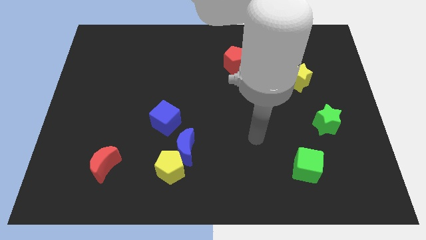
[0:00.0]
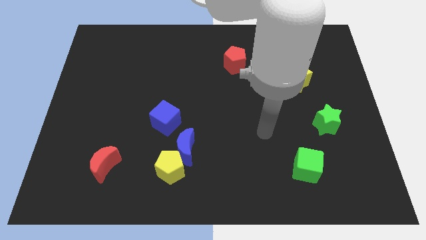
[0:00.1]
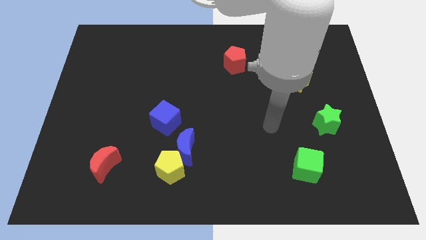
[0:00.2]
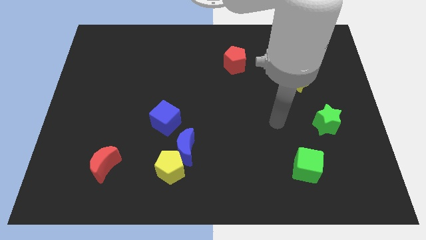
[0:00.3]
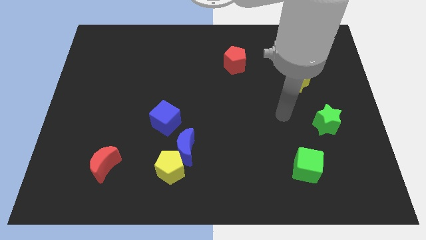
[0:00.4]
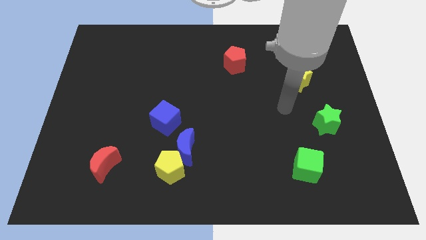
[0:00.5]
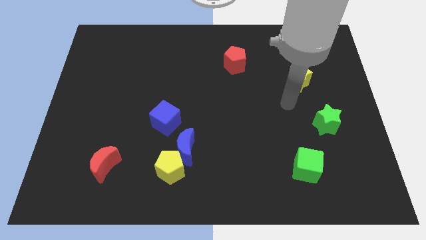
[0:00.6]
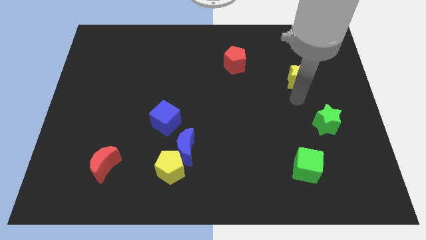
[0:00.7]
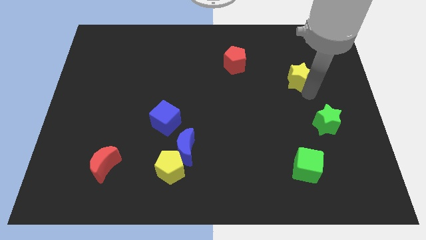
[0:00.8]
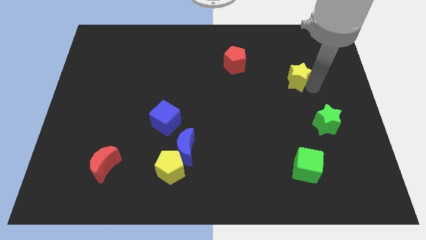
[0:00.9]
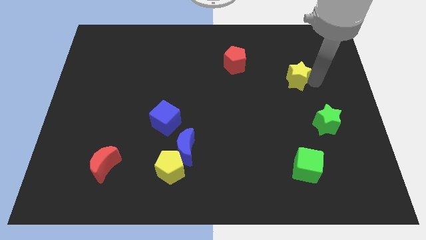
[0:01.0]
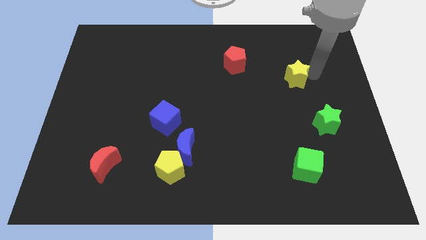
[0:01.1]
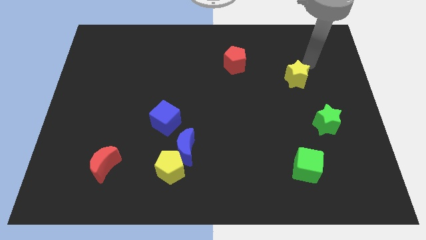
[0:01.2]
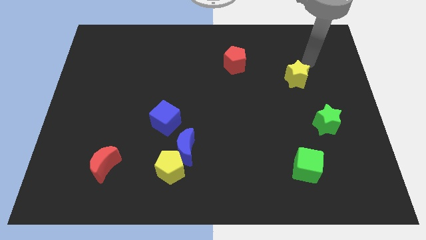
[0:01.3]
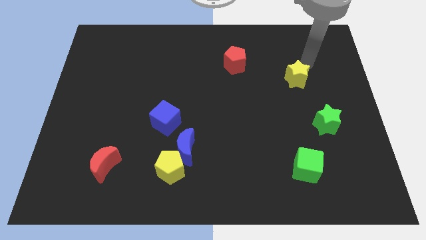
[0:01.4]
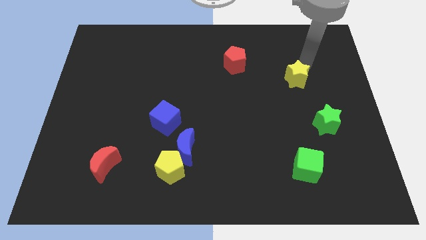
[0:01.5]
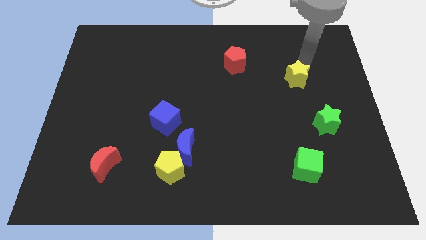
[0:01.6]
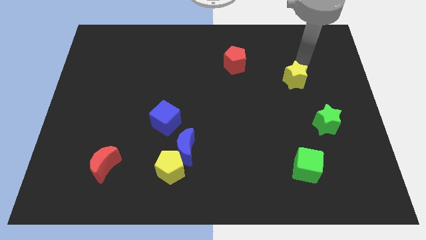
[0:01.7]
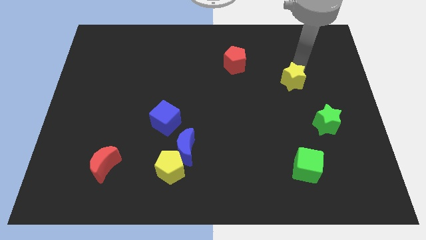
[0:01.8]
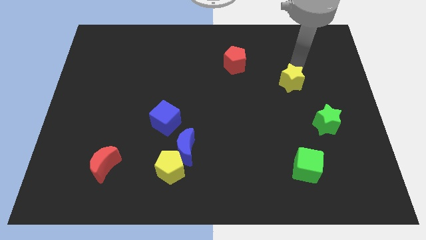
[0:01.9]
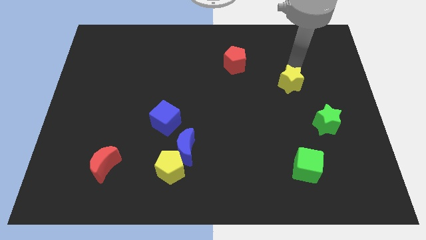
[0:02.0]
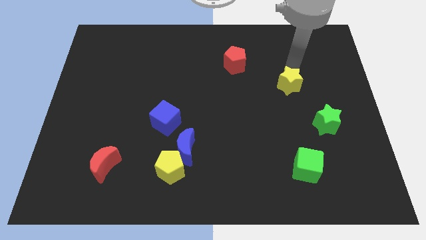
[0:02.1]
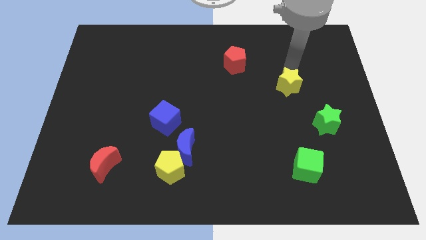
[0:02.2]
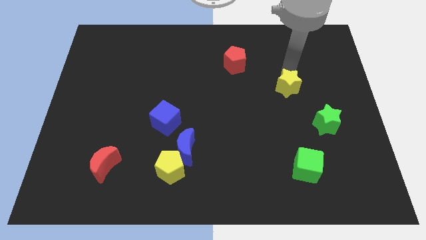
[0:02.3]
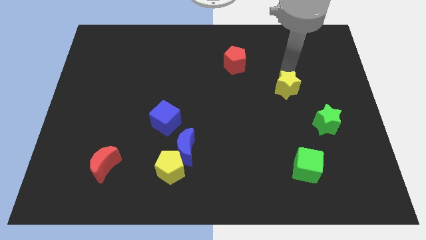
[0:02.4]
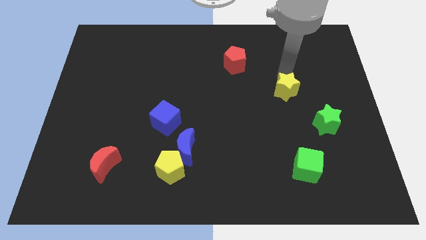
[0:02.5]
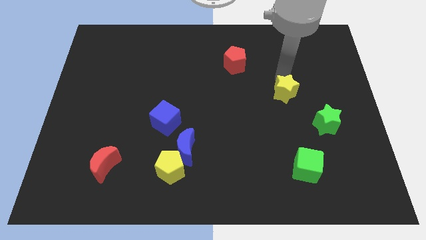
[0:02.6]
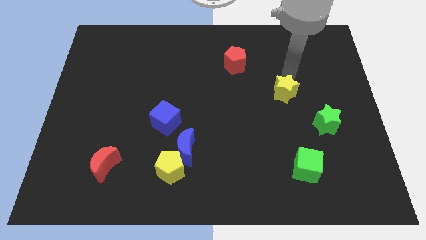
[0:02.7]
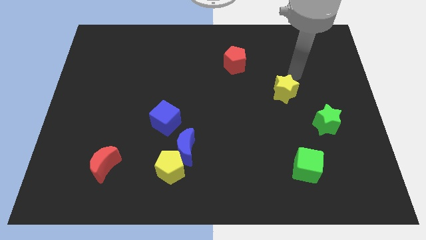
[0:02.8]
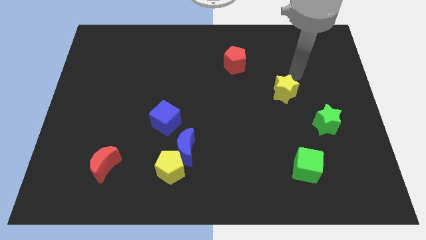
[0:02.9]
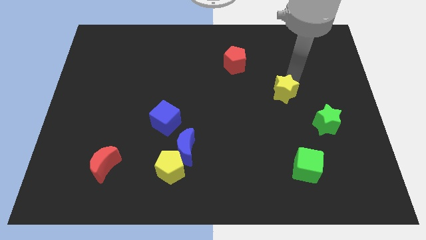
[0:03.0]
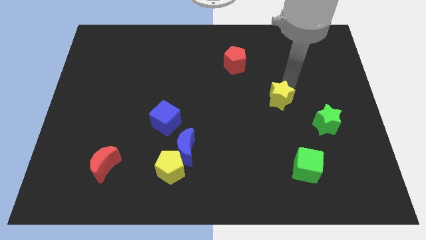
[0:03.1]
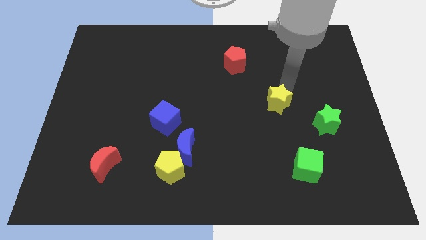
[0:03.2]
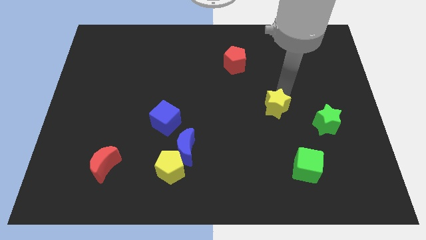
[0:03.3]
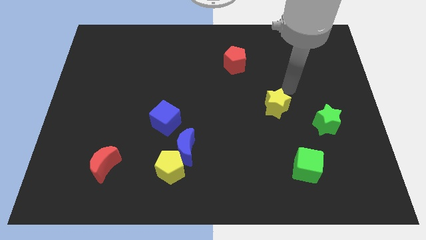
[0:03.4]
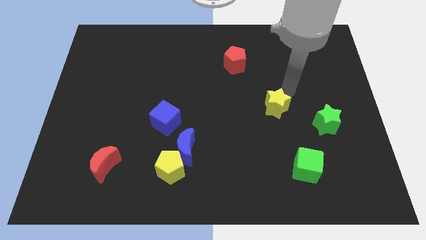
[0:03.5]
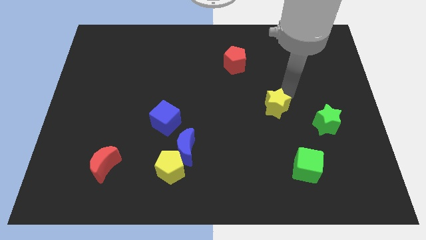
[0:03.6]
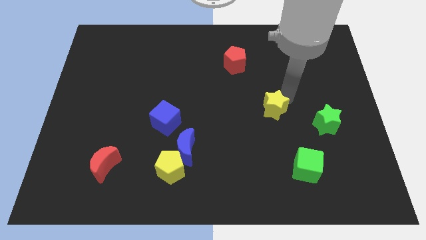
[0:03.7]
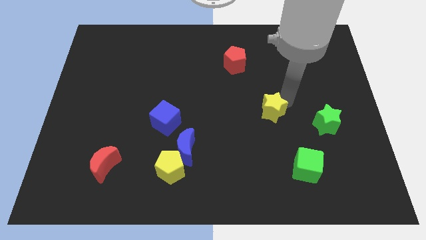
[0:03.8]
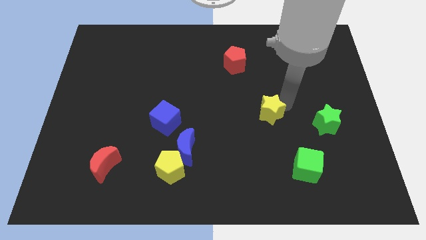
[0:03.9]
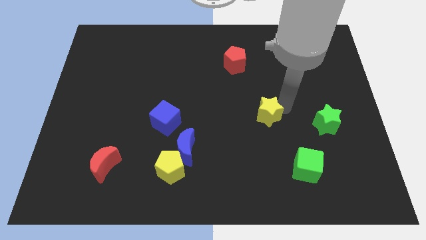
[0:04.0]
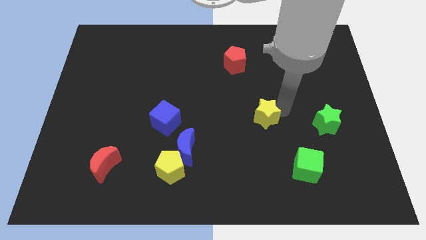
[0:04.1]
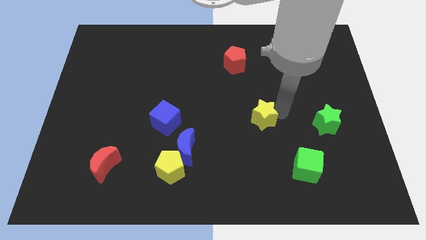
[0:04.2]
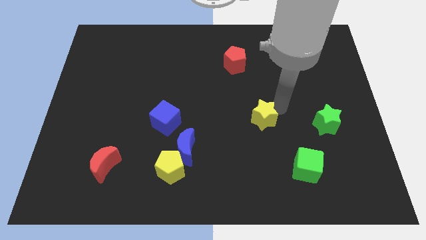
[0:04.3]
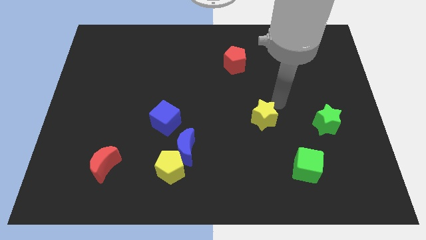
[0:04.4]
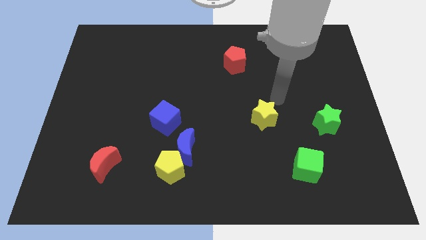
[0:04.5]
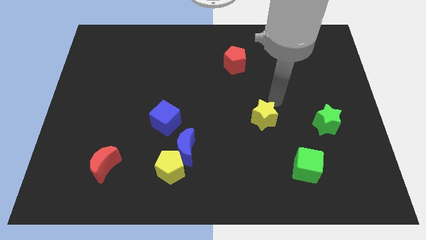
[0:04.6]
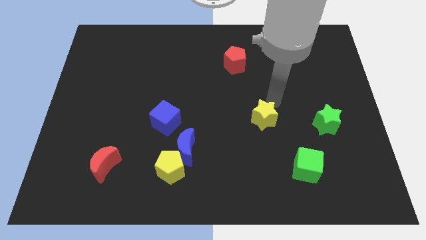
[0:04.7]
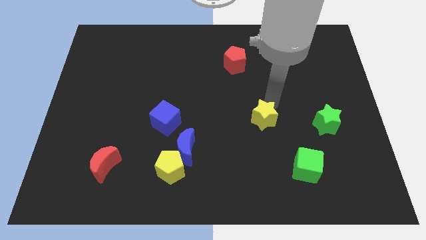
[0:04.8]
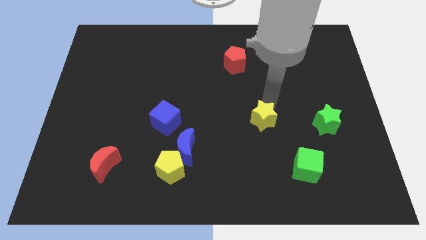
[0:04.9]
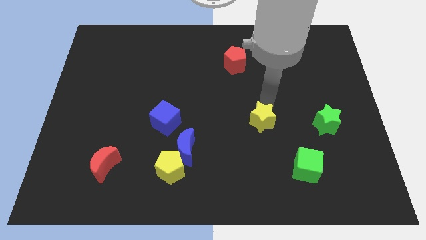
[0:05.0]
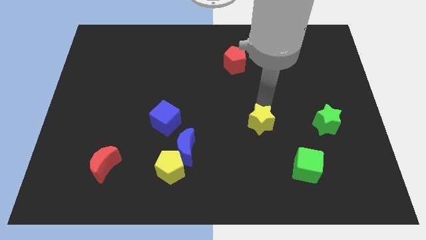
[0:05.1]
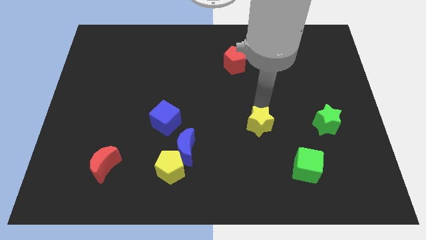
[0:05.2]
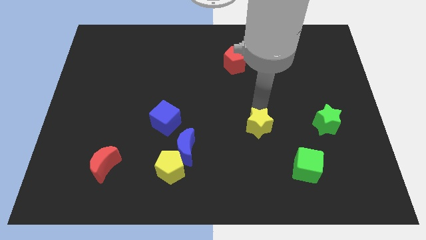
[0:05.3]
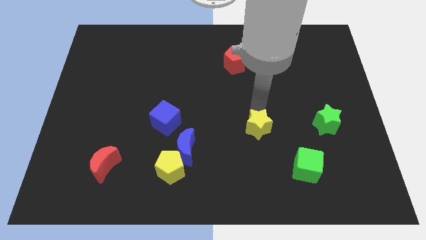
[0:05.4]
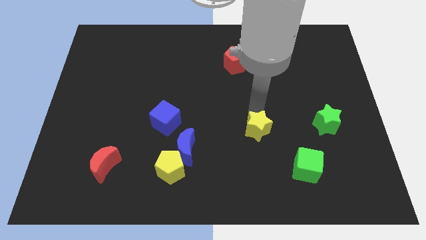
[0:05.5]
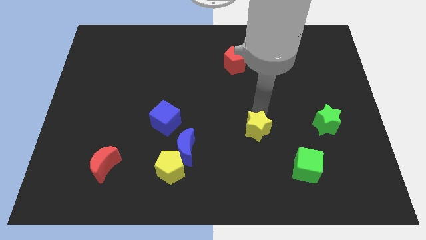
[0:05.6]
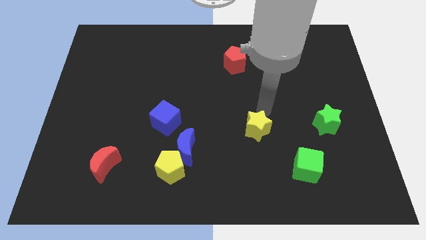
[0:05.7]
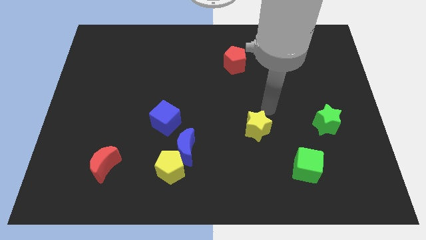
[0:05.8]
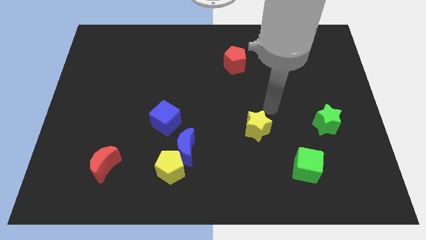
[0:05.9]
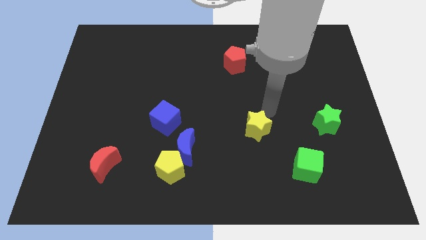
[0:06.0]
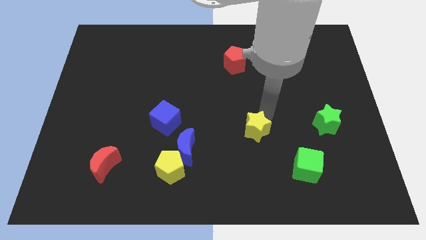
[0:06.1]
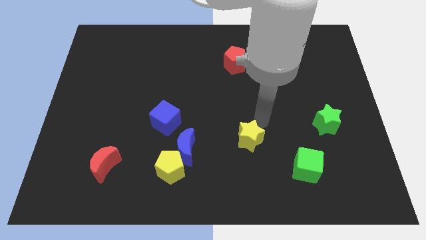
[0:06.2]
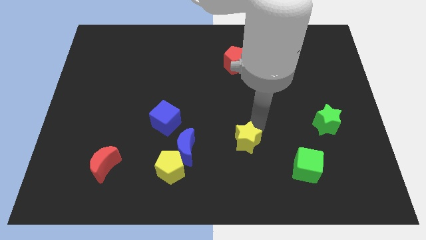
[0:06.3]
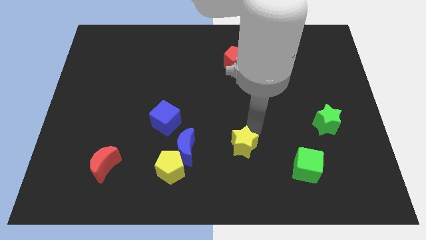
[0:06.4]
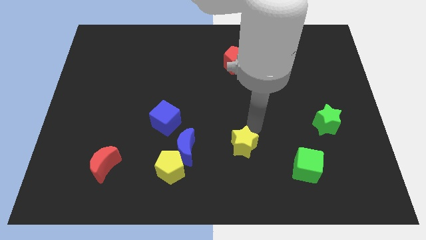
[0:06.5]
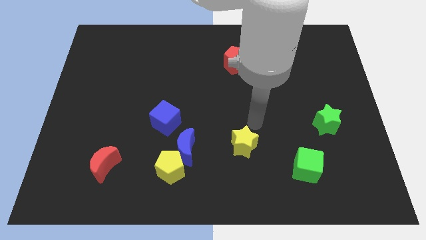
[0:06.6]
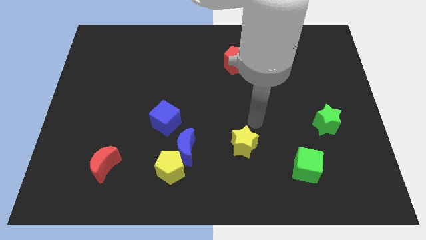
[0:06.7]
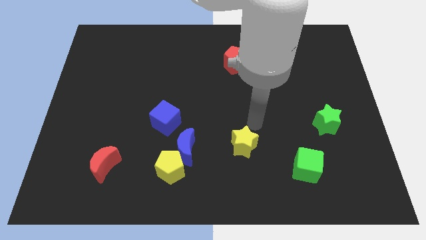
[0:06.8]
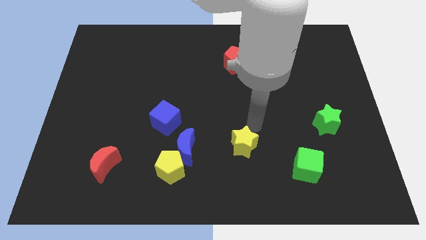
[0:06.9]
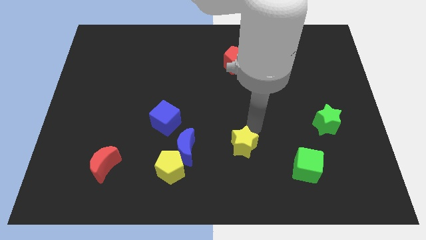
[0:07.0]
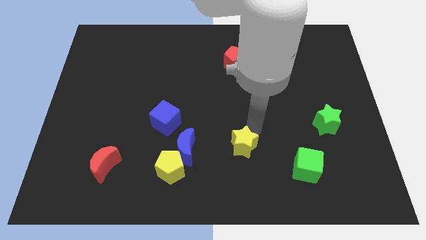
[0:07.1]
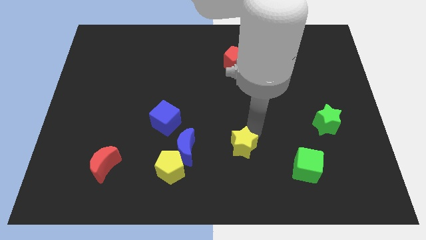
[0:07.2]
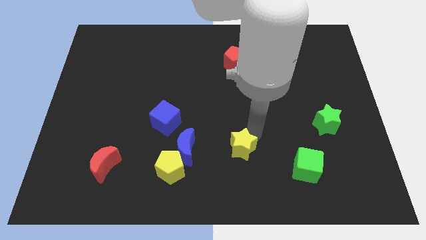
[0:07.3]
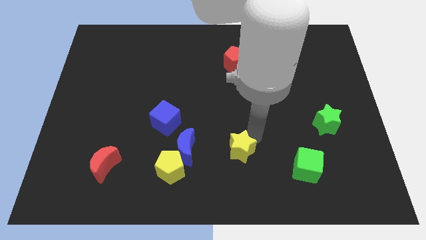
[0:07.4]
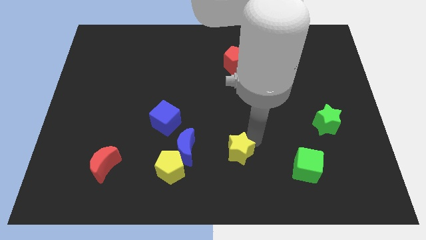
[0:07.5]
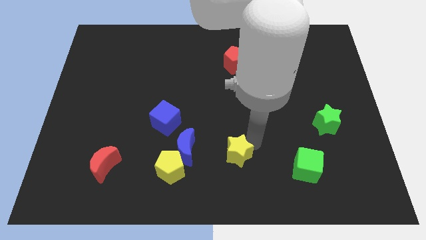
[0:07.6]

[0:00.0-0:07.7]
put the yellow star to the right side of the yellow pentagon
